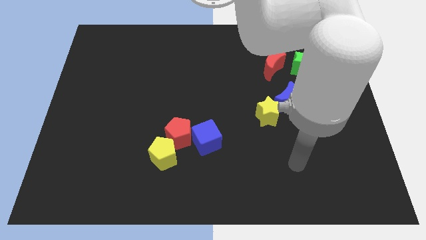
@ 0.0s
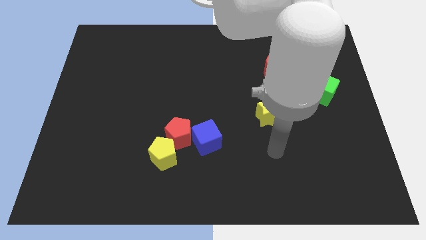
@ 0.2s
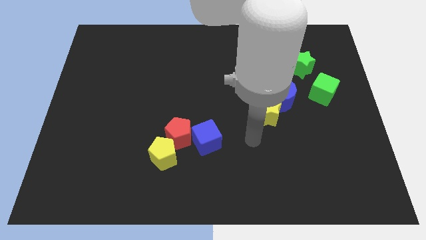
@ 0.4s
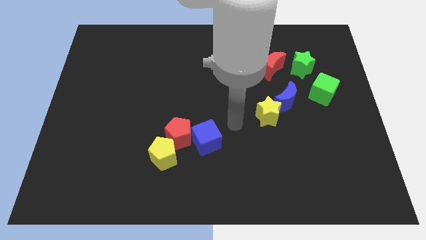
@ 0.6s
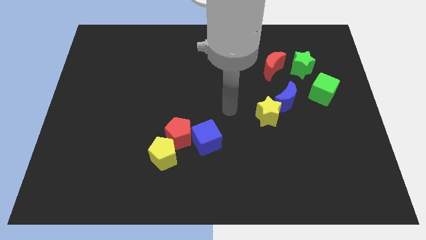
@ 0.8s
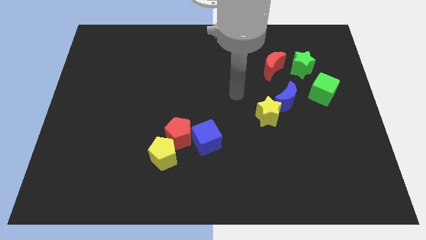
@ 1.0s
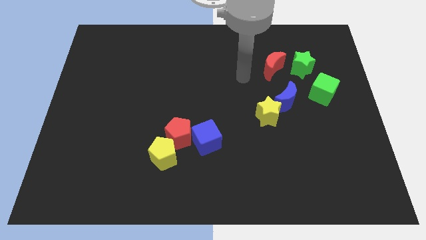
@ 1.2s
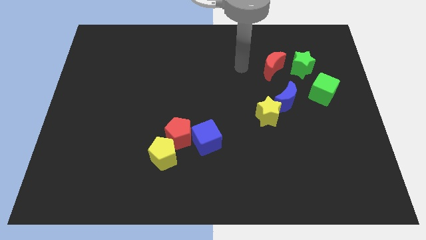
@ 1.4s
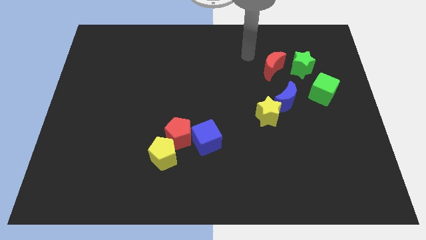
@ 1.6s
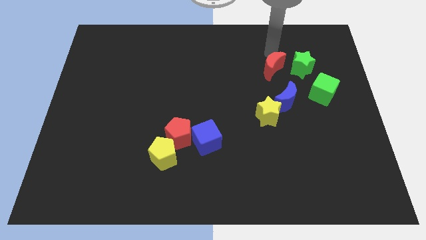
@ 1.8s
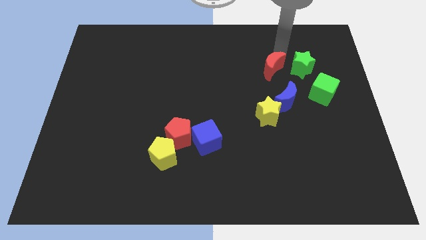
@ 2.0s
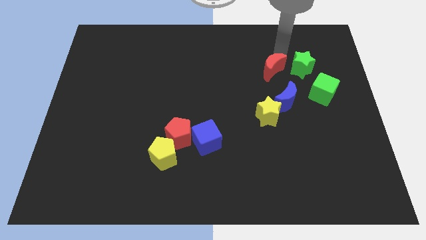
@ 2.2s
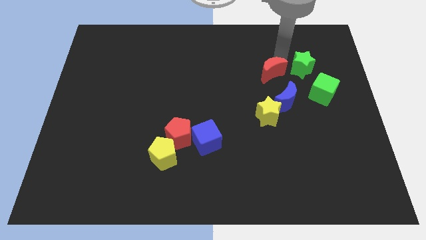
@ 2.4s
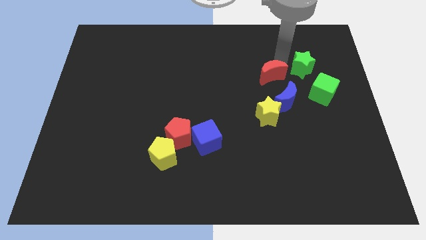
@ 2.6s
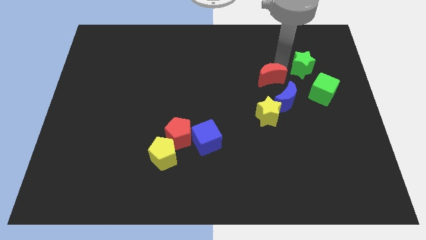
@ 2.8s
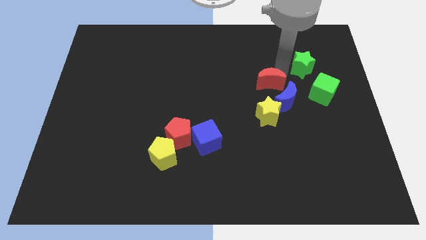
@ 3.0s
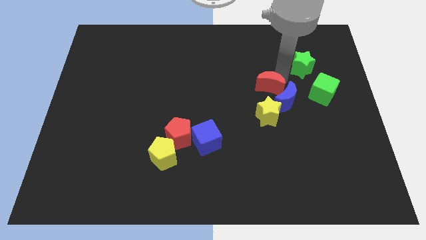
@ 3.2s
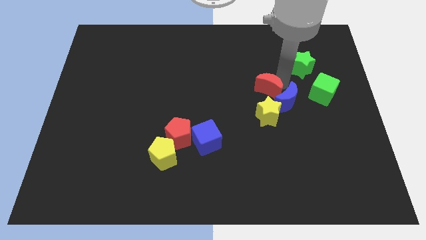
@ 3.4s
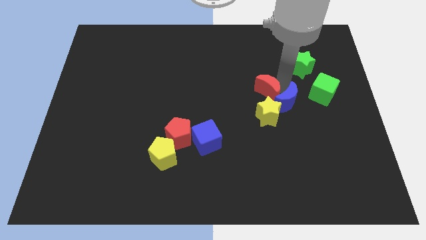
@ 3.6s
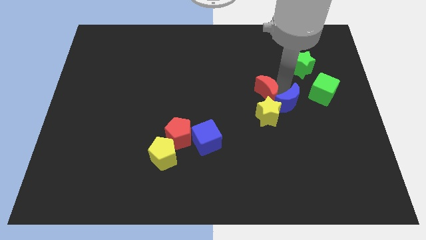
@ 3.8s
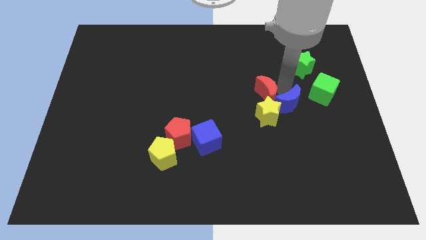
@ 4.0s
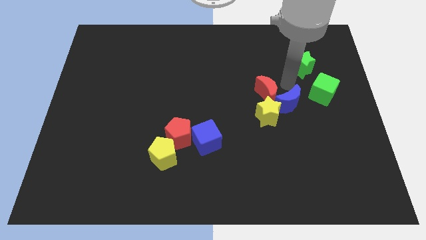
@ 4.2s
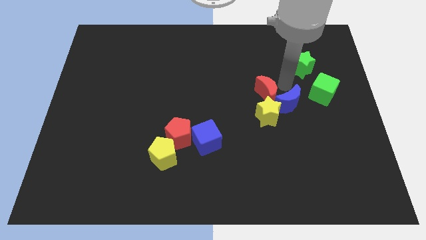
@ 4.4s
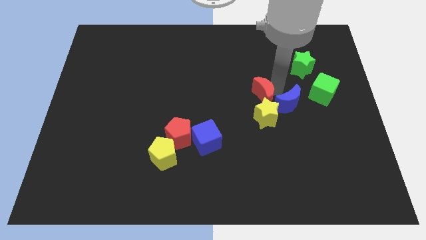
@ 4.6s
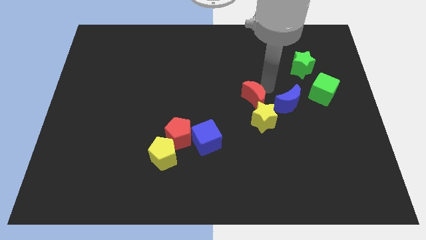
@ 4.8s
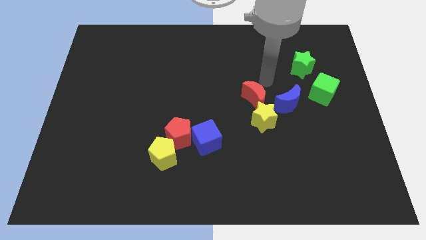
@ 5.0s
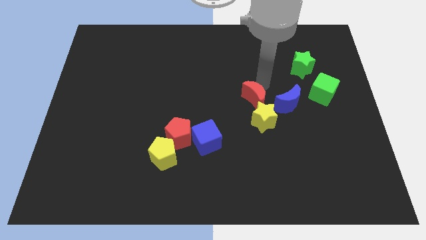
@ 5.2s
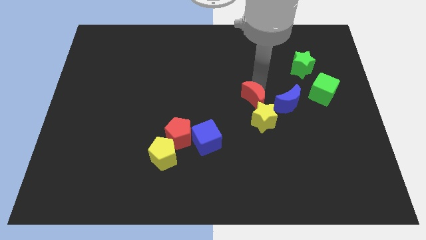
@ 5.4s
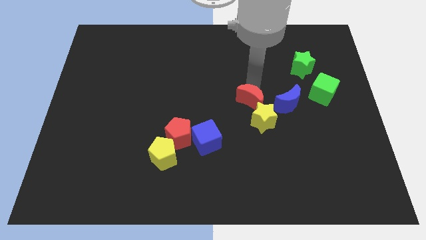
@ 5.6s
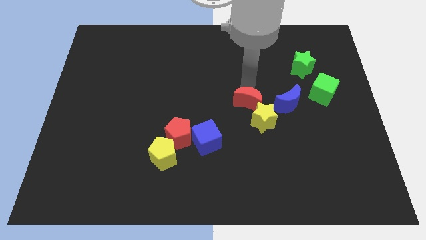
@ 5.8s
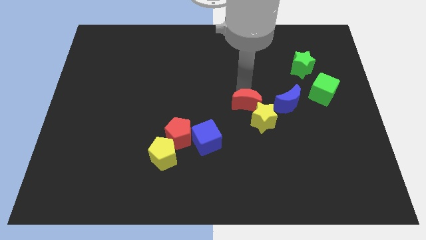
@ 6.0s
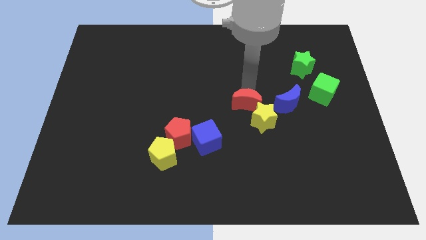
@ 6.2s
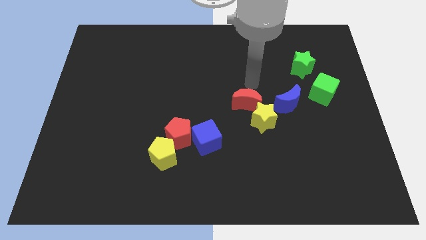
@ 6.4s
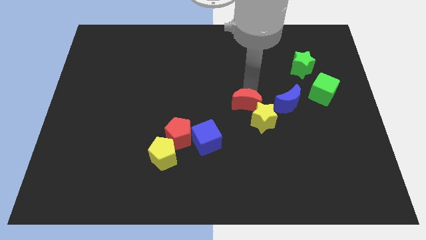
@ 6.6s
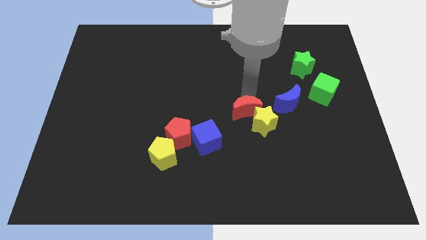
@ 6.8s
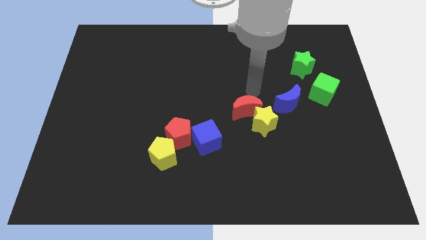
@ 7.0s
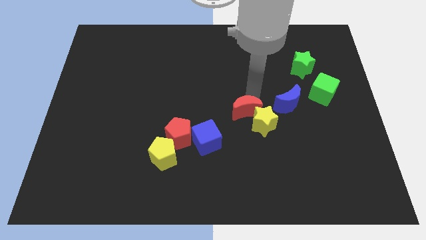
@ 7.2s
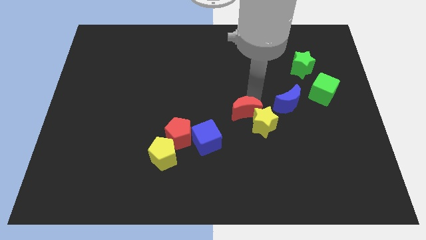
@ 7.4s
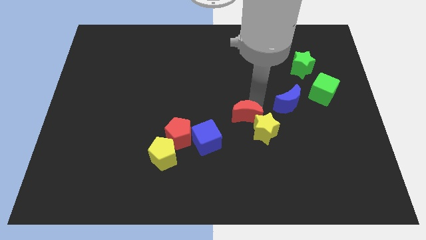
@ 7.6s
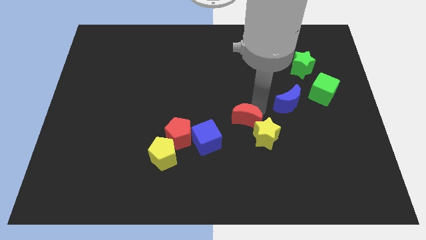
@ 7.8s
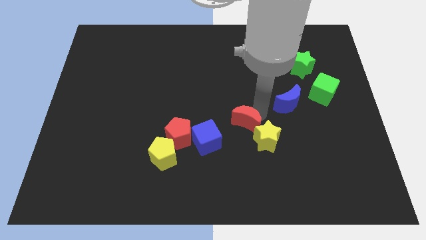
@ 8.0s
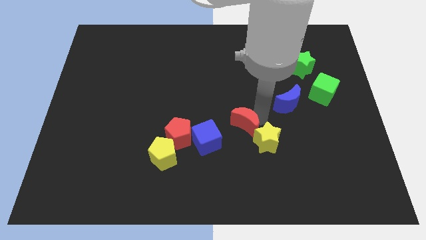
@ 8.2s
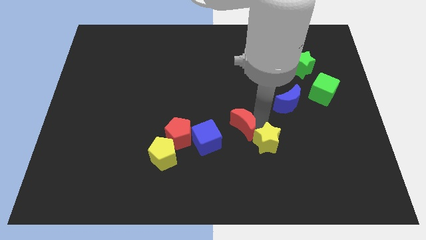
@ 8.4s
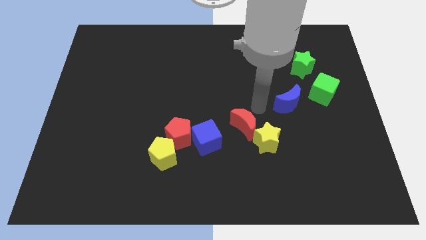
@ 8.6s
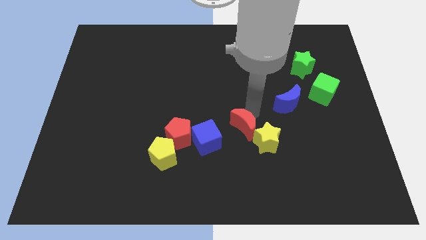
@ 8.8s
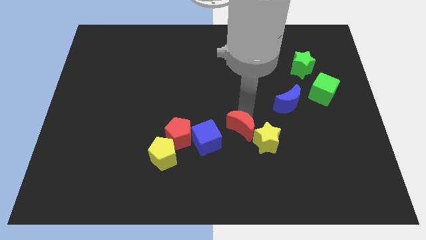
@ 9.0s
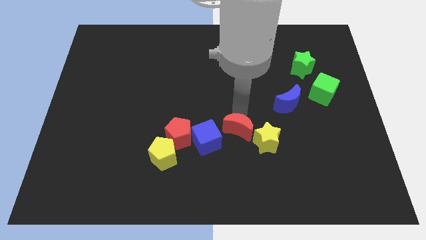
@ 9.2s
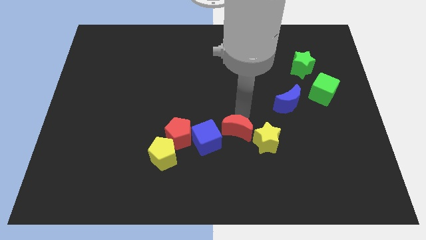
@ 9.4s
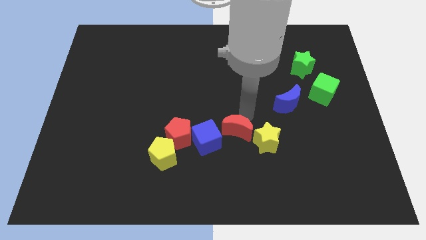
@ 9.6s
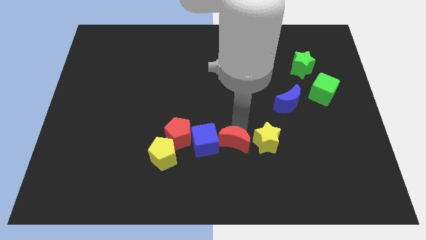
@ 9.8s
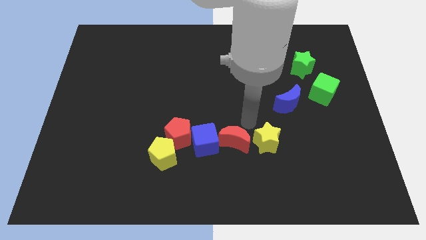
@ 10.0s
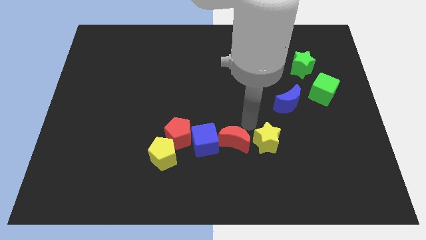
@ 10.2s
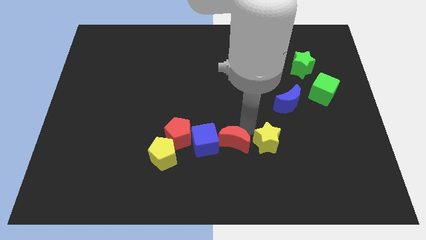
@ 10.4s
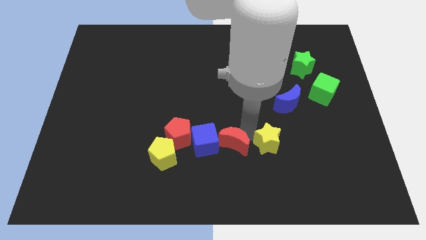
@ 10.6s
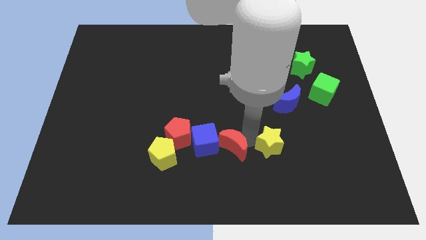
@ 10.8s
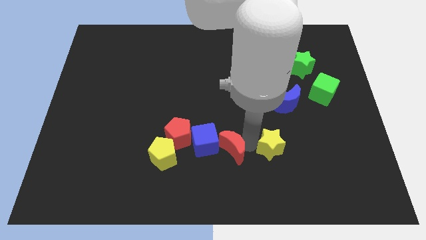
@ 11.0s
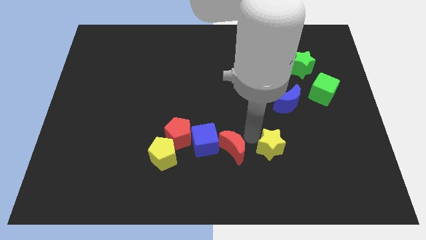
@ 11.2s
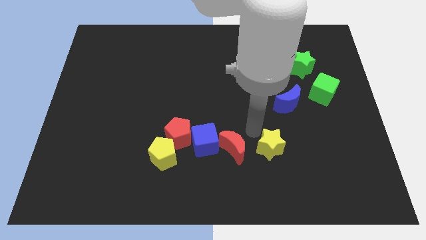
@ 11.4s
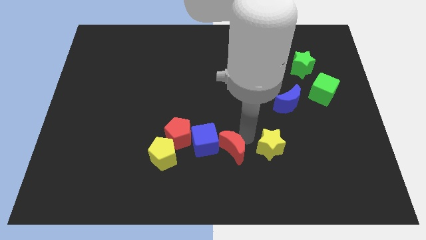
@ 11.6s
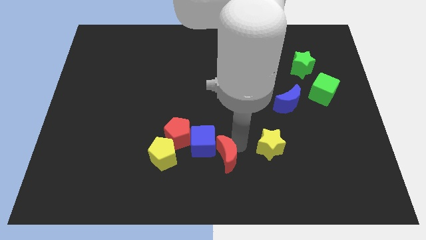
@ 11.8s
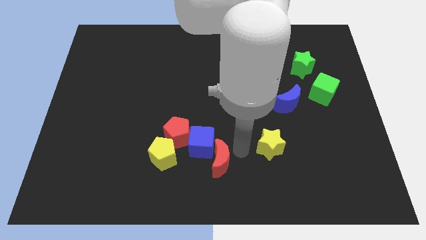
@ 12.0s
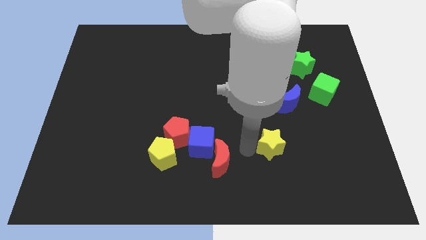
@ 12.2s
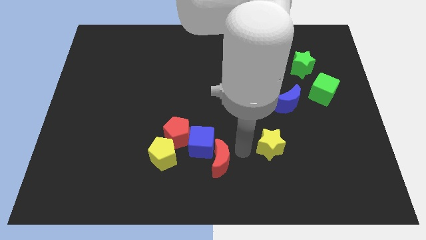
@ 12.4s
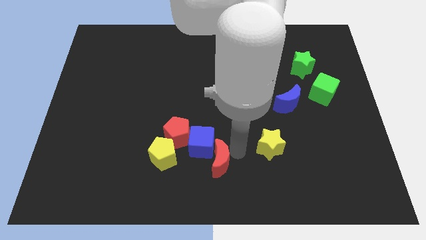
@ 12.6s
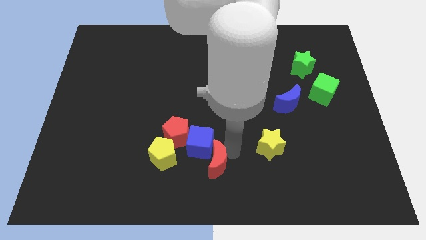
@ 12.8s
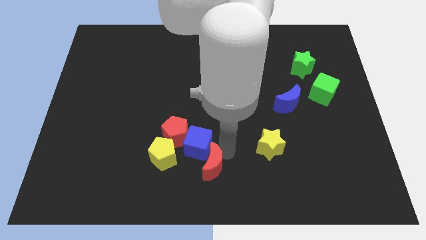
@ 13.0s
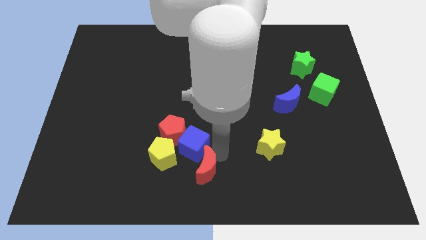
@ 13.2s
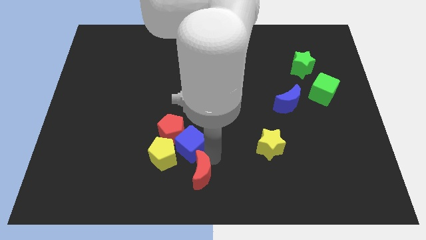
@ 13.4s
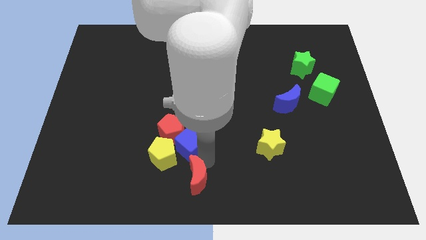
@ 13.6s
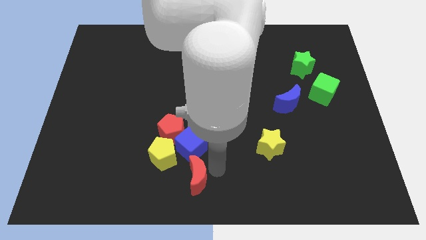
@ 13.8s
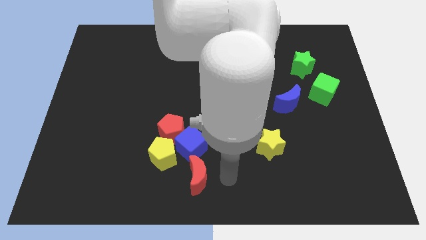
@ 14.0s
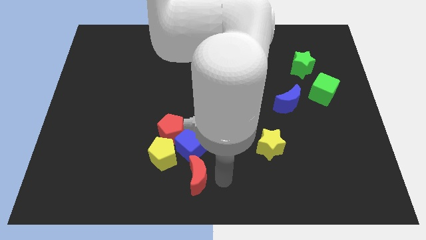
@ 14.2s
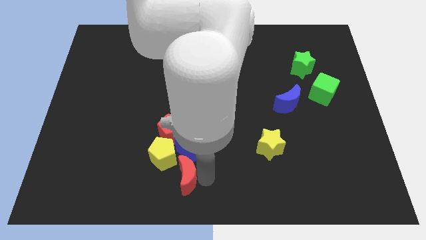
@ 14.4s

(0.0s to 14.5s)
slide the red moon to the bottom of the red pentagon
